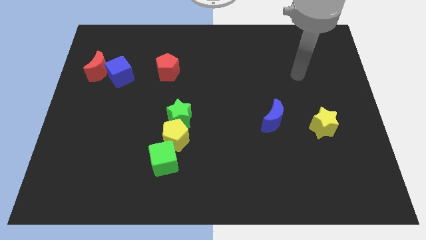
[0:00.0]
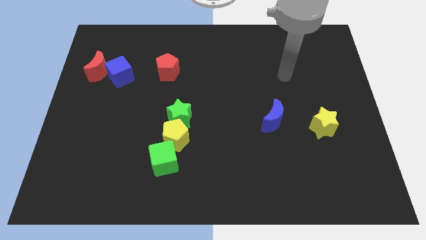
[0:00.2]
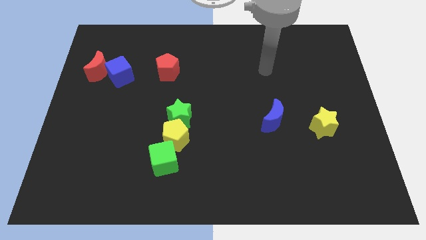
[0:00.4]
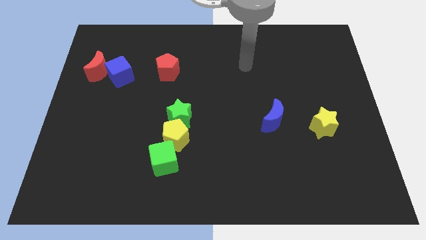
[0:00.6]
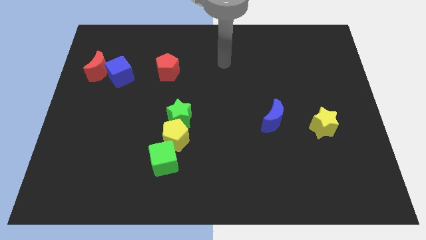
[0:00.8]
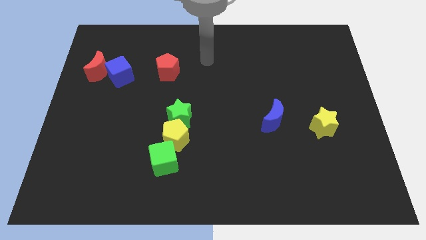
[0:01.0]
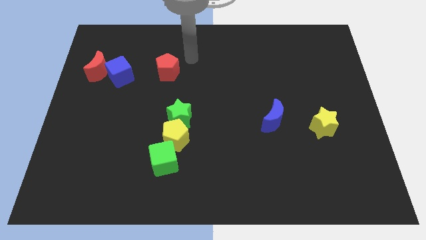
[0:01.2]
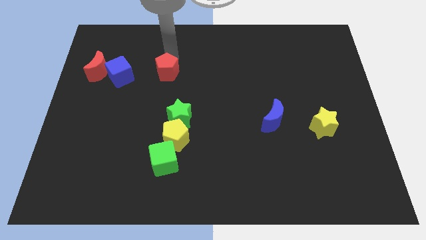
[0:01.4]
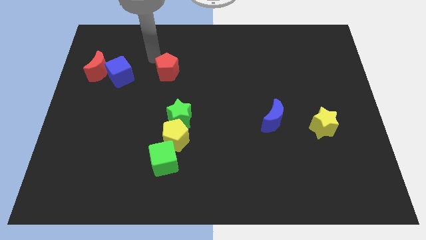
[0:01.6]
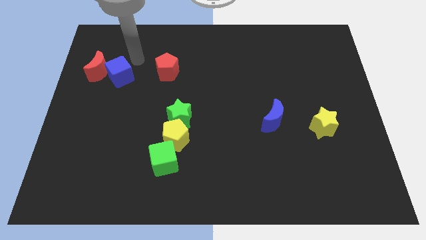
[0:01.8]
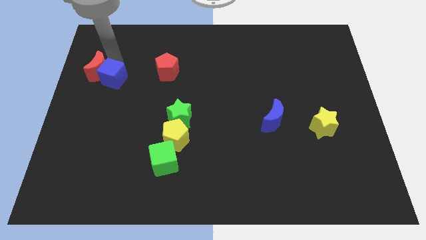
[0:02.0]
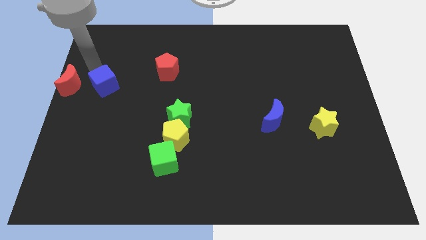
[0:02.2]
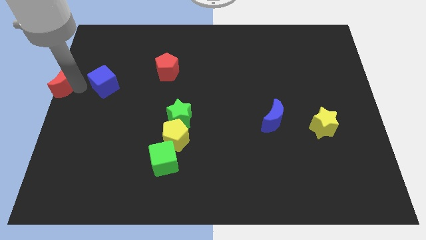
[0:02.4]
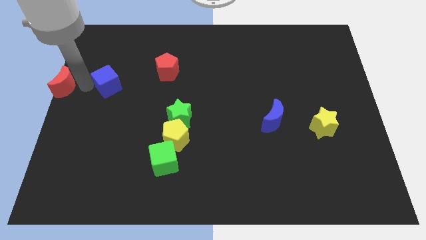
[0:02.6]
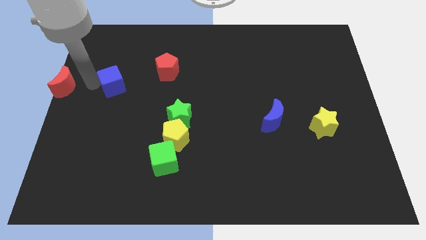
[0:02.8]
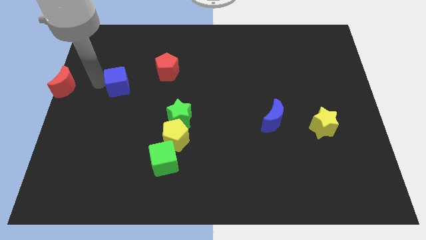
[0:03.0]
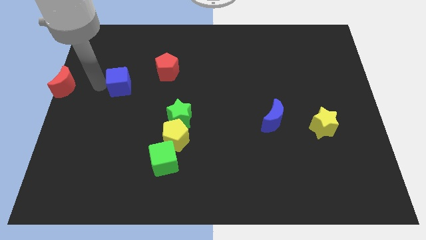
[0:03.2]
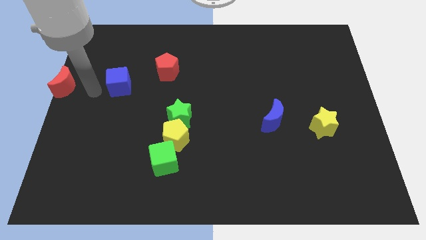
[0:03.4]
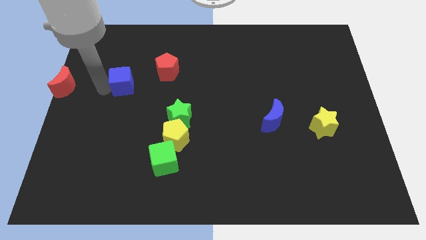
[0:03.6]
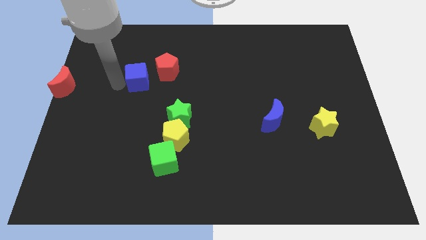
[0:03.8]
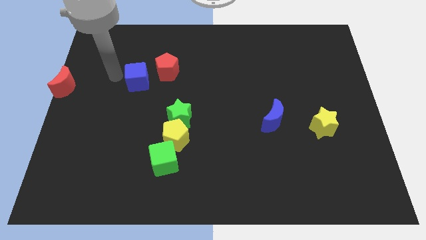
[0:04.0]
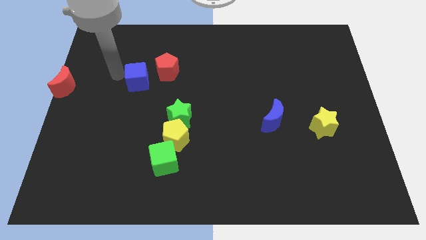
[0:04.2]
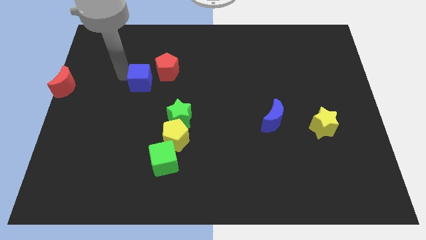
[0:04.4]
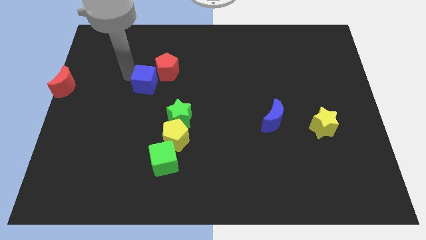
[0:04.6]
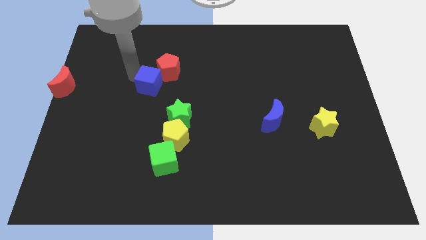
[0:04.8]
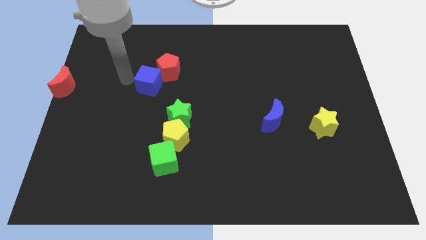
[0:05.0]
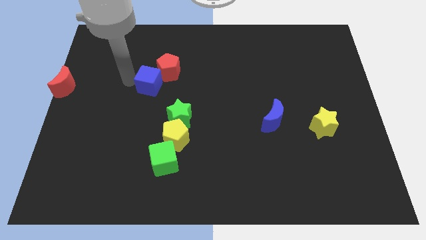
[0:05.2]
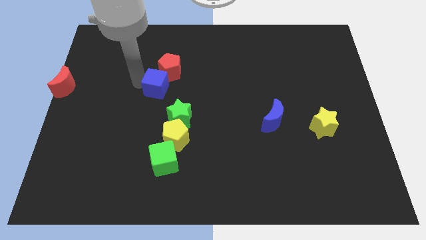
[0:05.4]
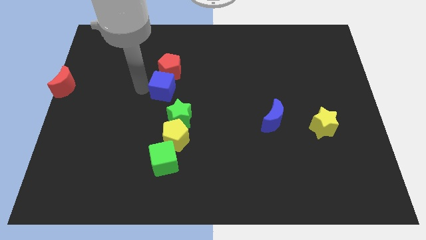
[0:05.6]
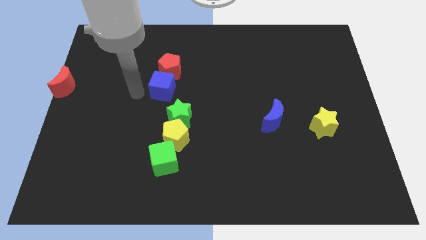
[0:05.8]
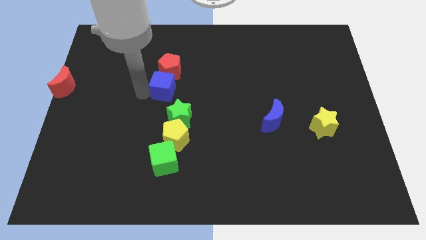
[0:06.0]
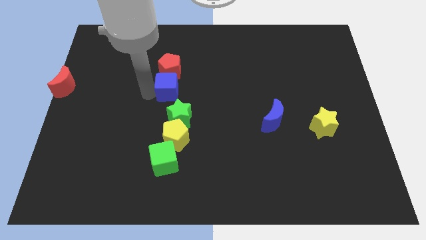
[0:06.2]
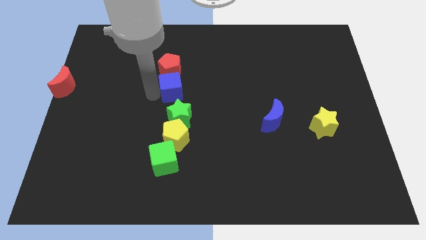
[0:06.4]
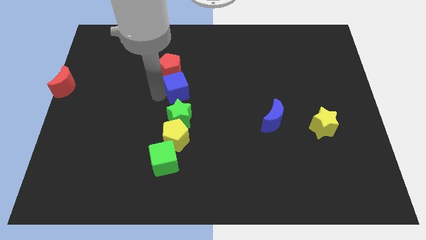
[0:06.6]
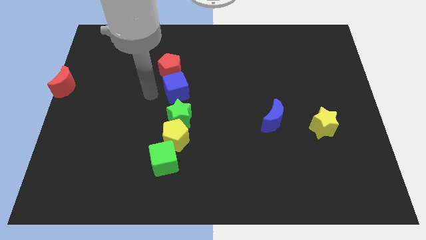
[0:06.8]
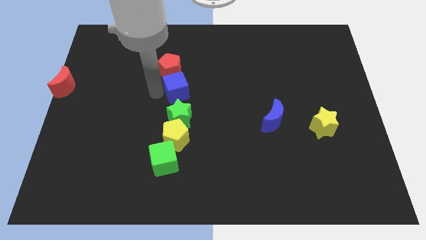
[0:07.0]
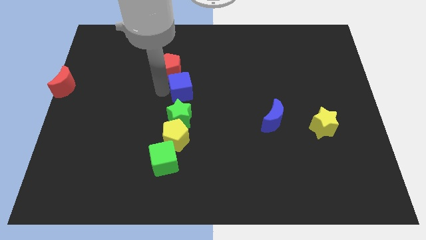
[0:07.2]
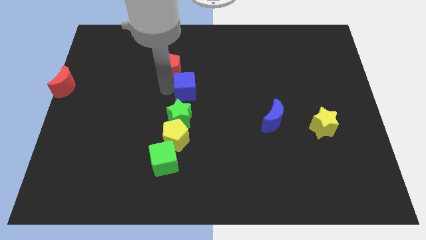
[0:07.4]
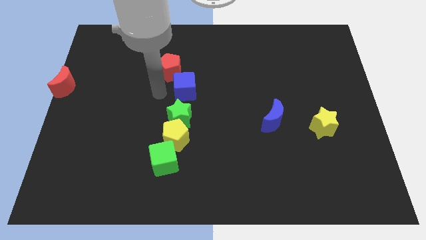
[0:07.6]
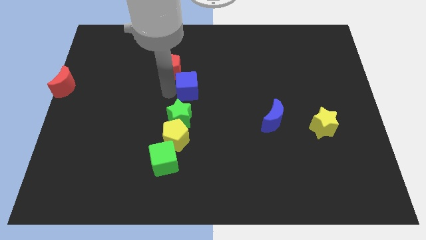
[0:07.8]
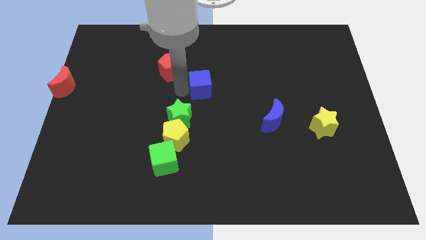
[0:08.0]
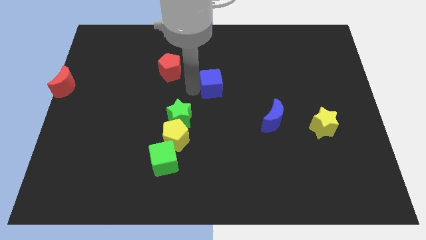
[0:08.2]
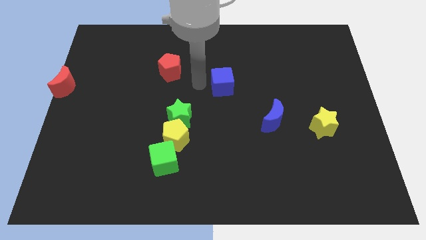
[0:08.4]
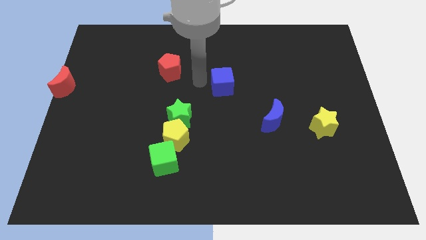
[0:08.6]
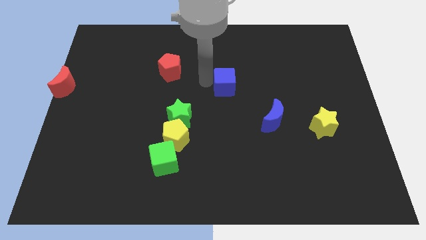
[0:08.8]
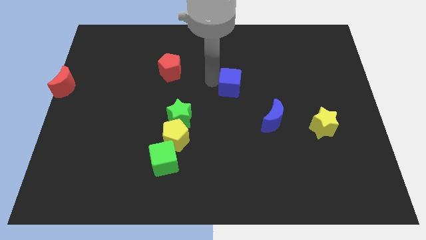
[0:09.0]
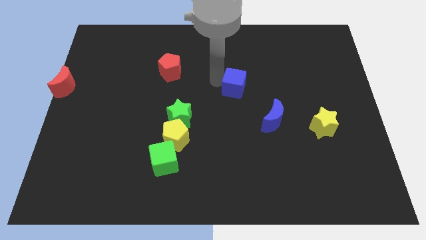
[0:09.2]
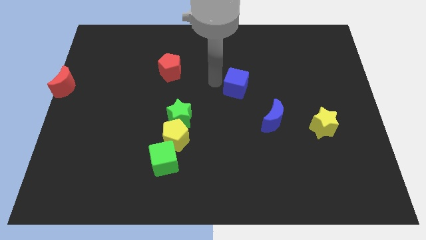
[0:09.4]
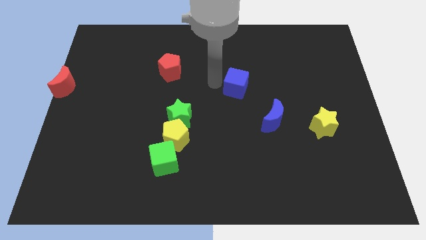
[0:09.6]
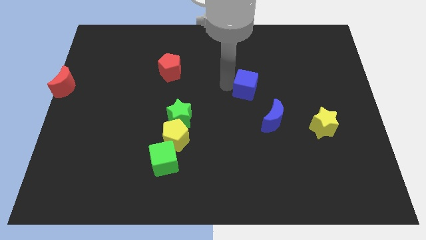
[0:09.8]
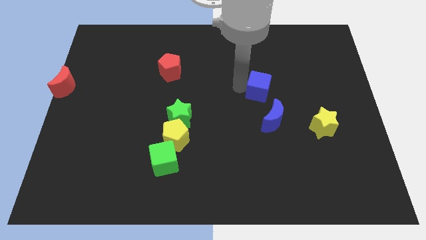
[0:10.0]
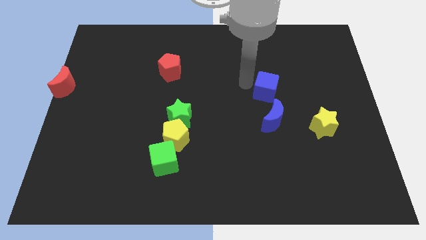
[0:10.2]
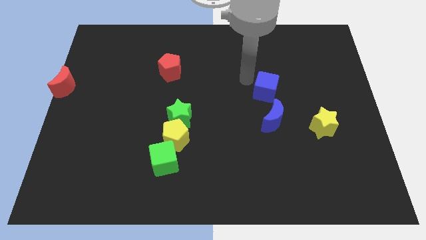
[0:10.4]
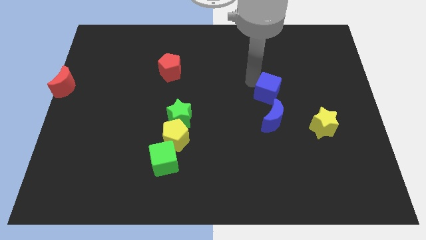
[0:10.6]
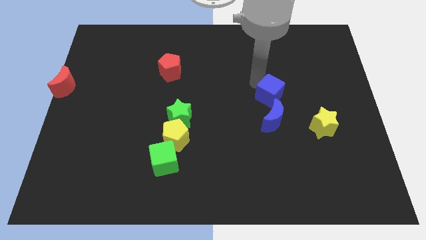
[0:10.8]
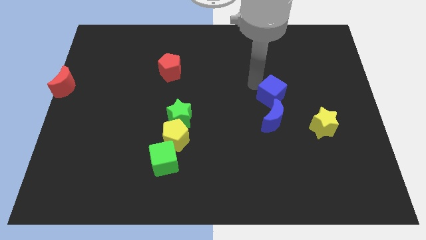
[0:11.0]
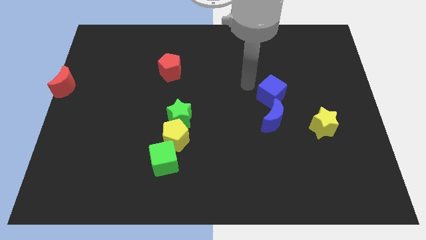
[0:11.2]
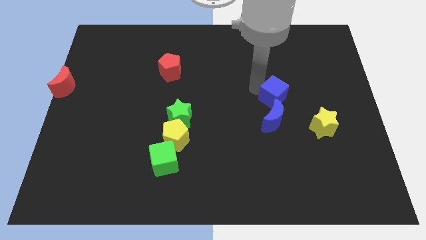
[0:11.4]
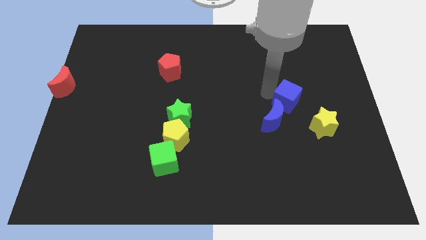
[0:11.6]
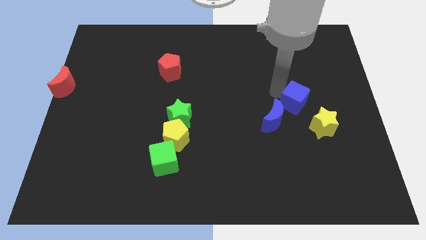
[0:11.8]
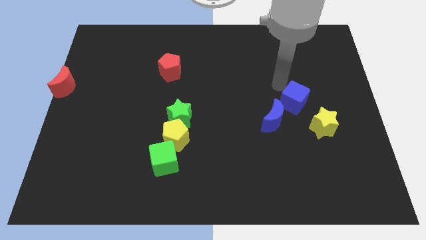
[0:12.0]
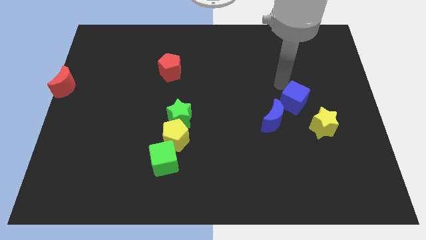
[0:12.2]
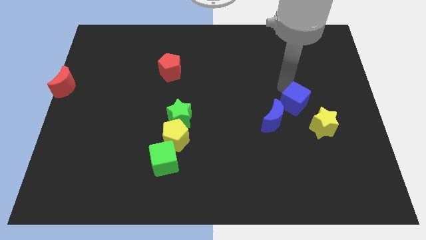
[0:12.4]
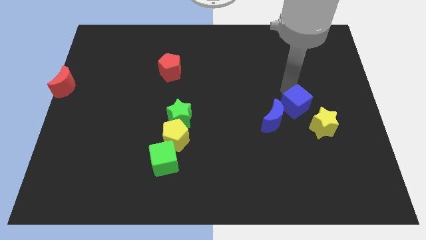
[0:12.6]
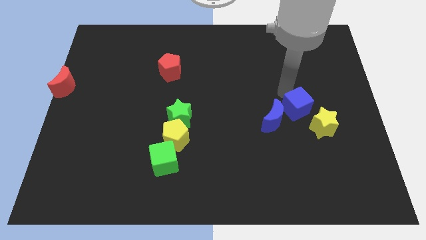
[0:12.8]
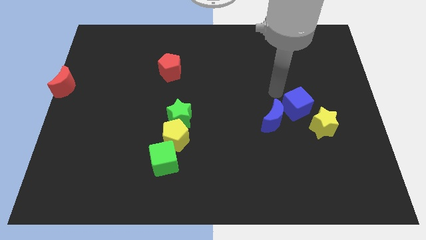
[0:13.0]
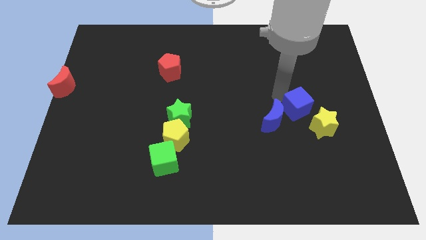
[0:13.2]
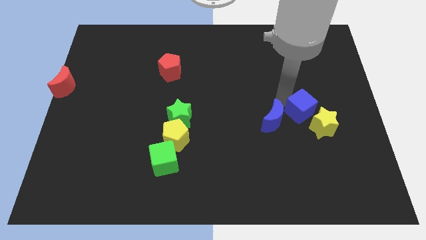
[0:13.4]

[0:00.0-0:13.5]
put the blue cube to the yellow star
